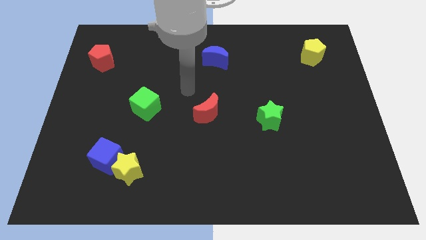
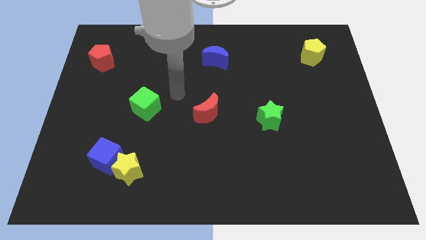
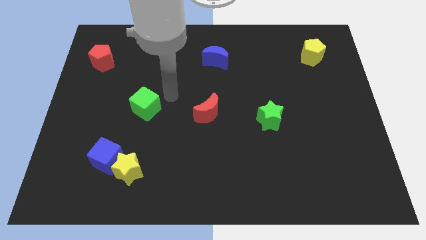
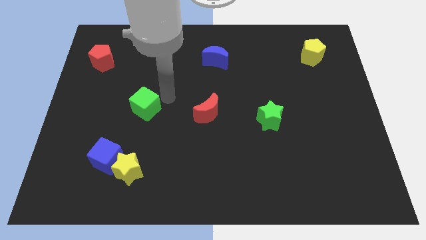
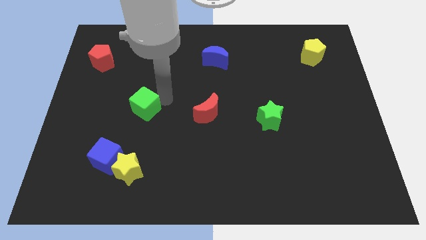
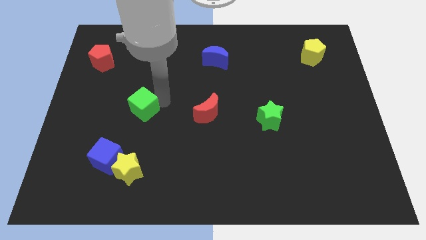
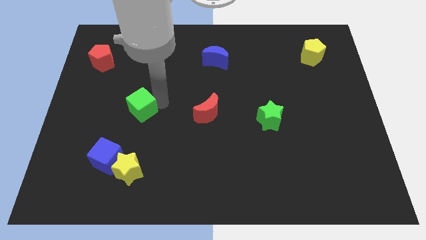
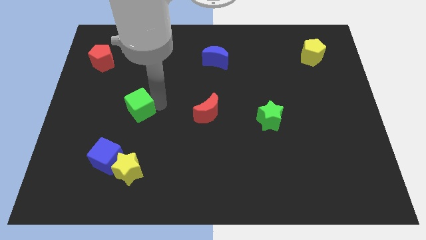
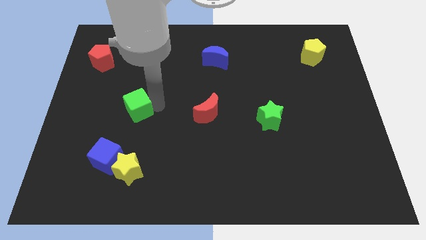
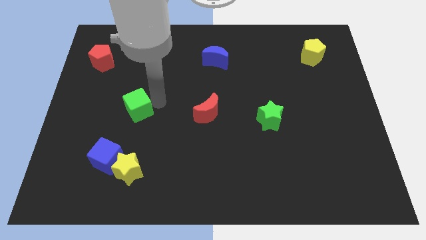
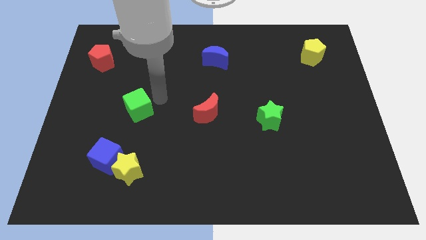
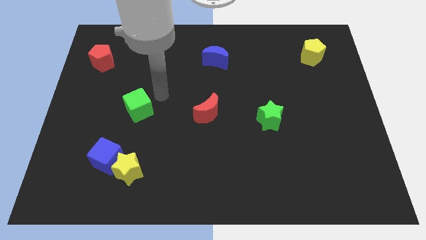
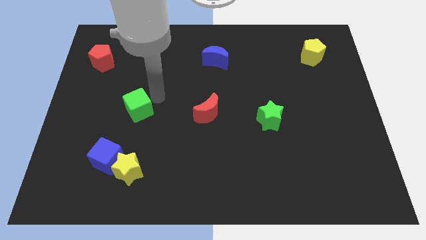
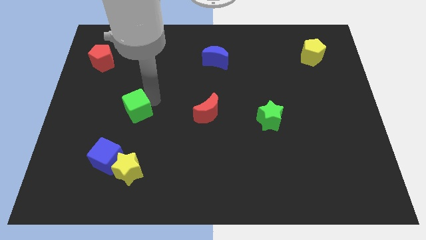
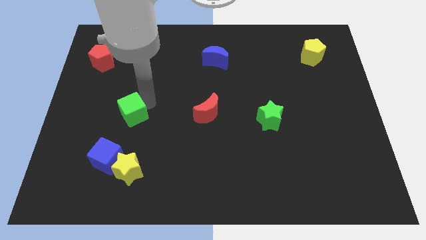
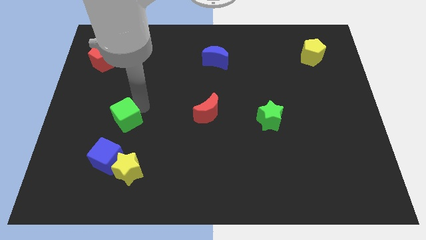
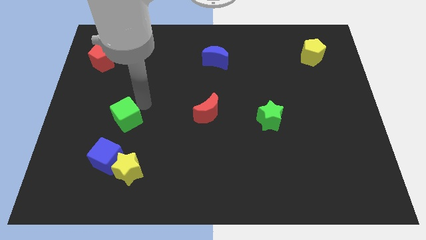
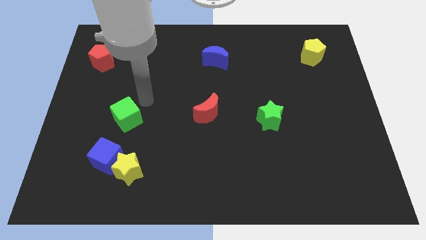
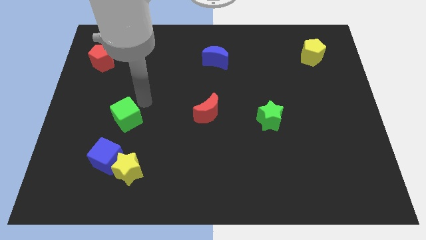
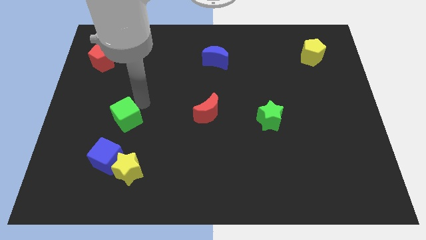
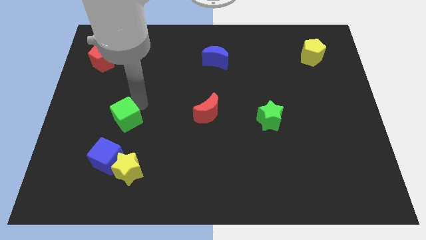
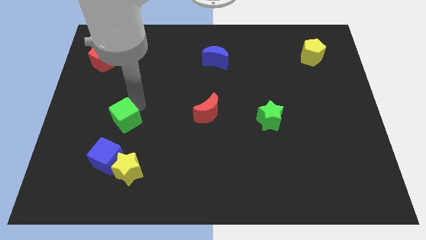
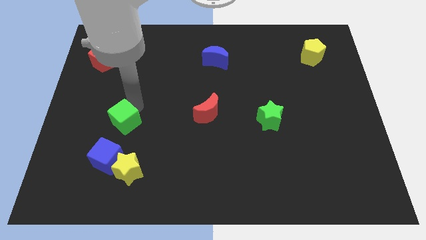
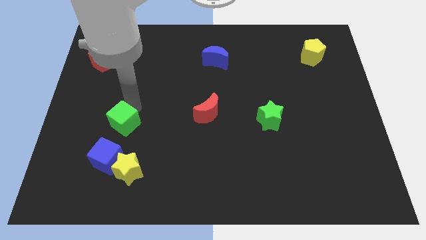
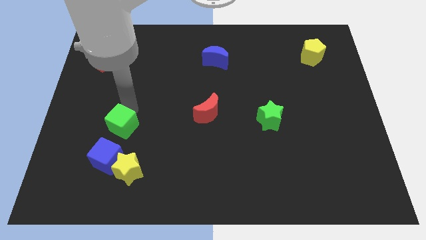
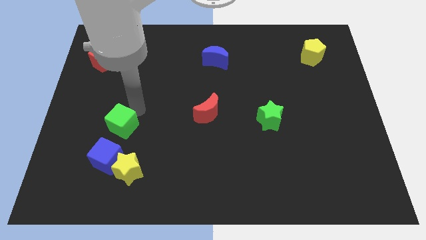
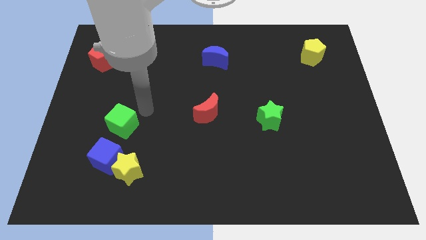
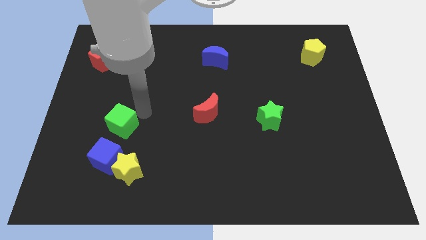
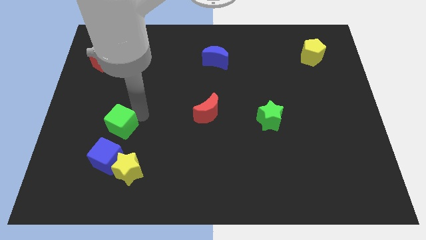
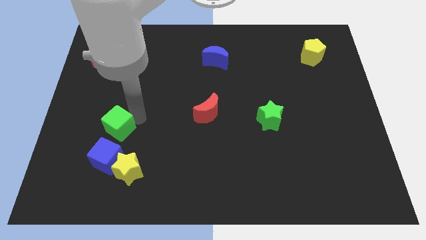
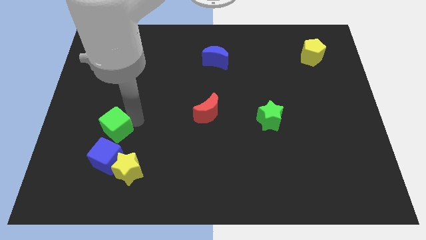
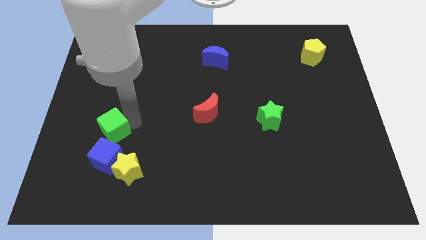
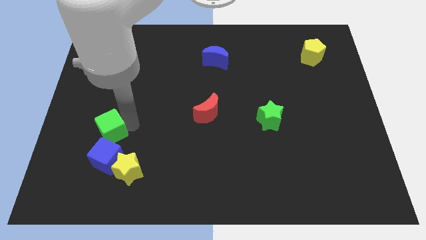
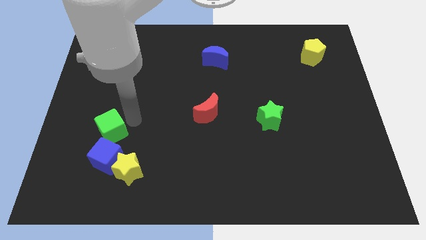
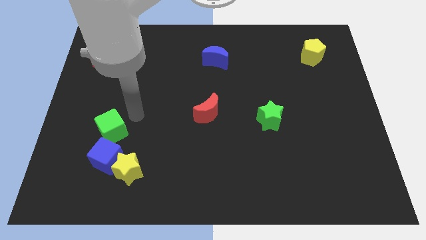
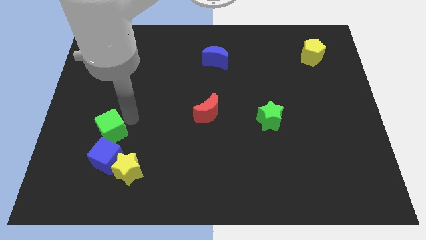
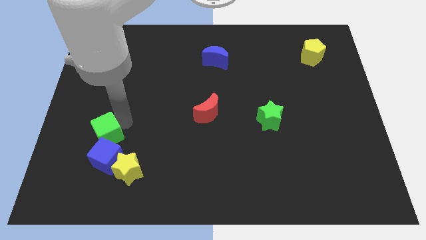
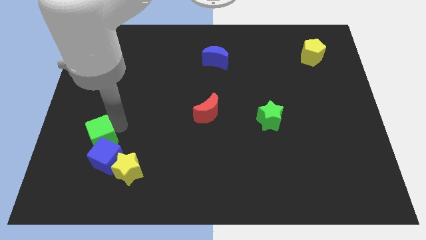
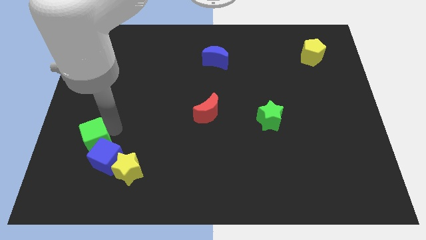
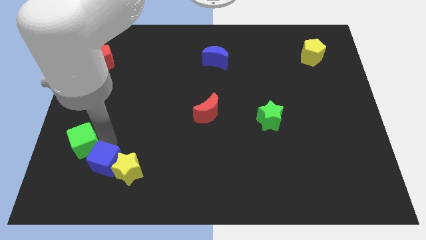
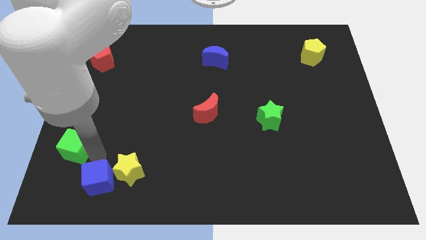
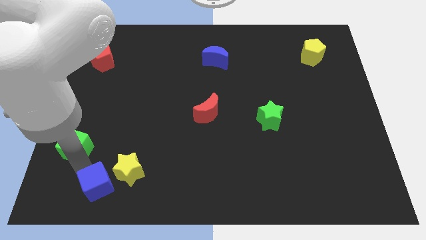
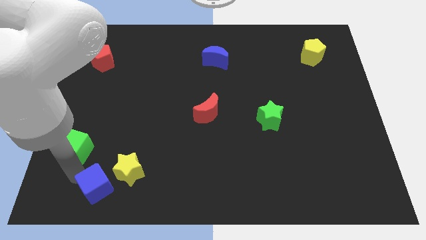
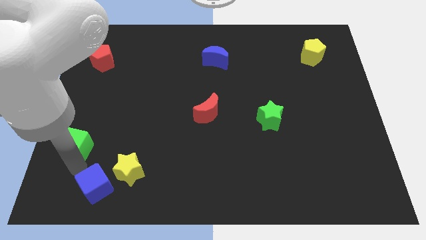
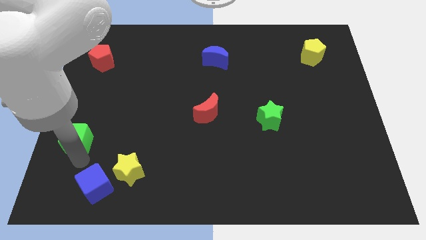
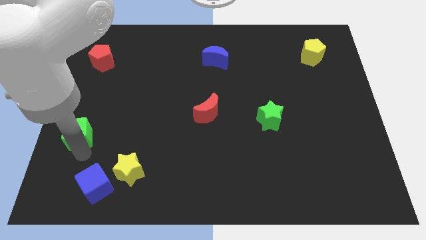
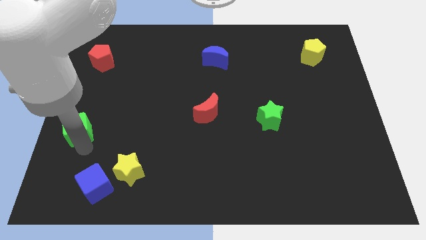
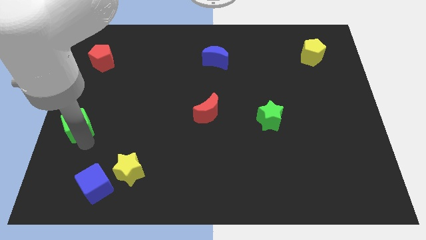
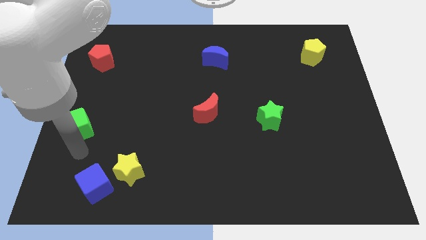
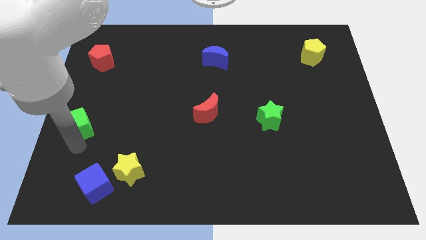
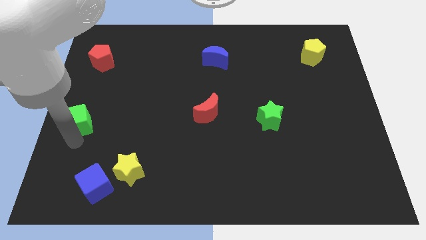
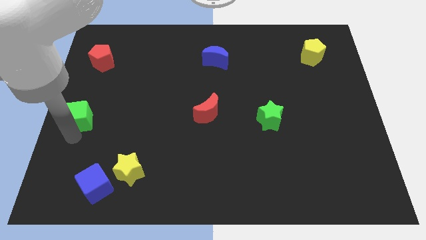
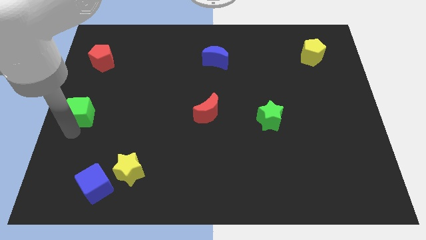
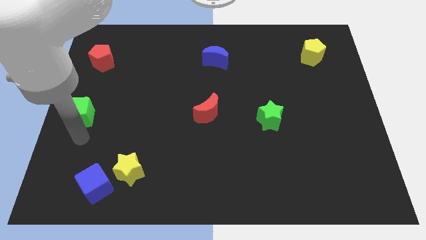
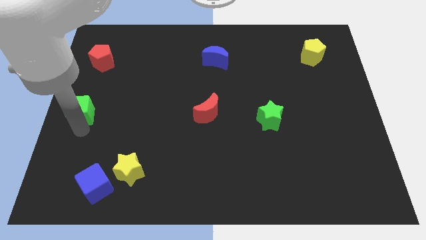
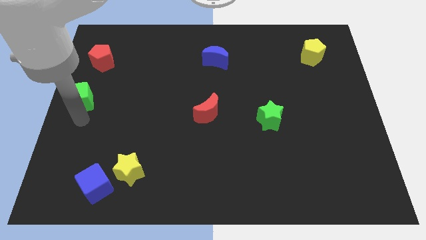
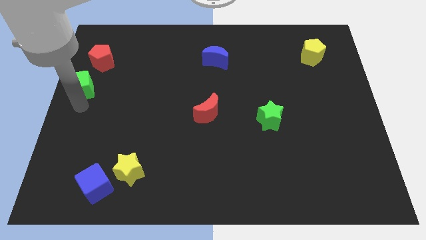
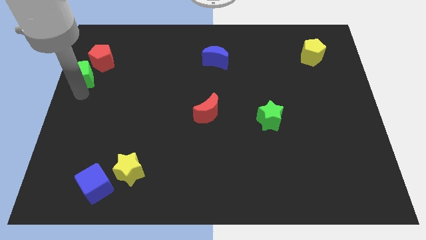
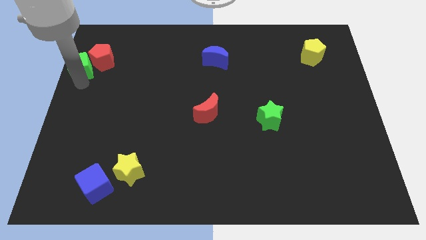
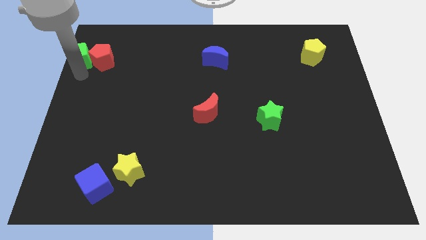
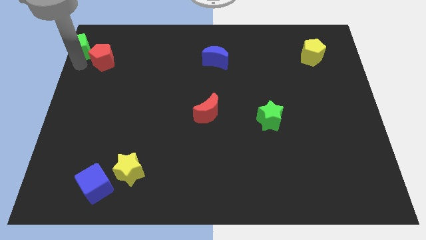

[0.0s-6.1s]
push the green cube to the upper left corner

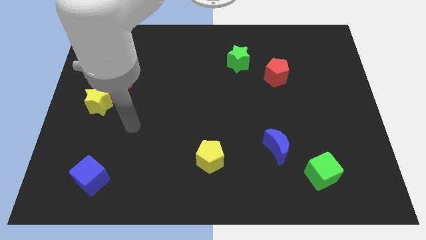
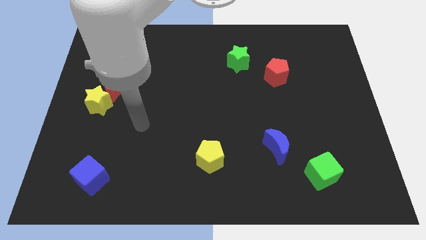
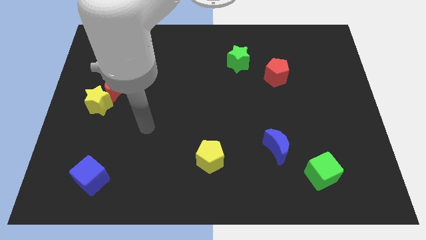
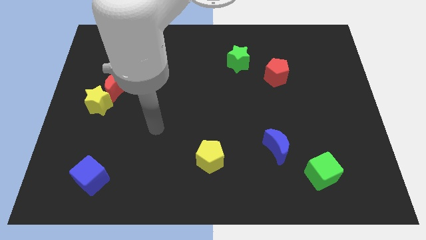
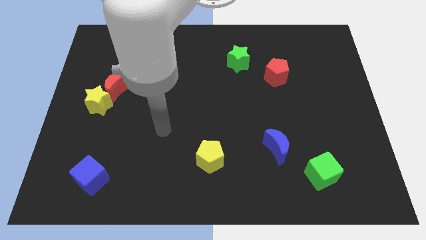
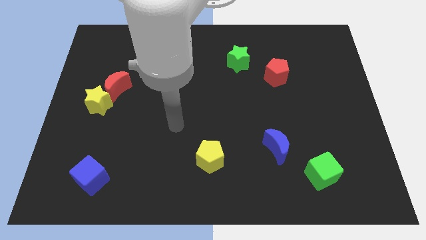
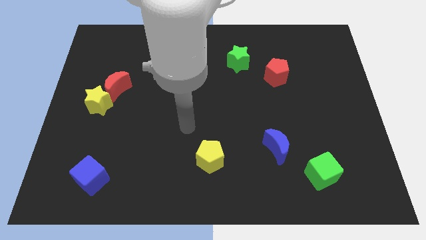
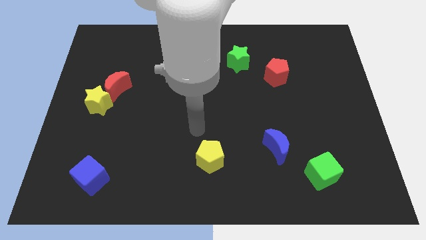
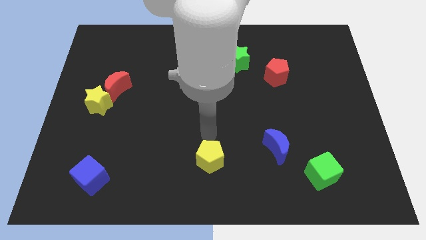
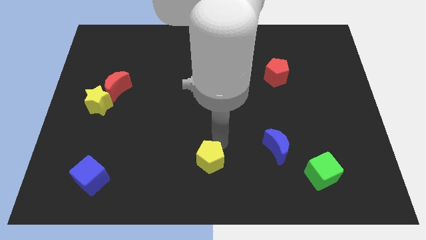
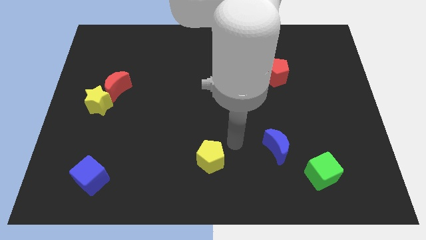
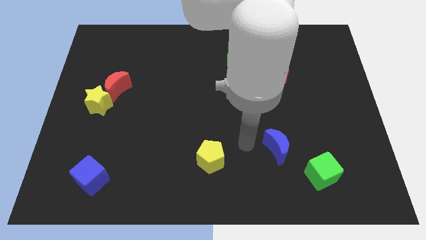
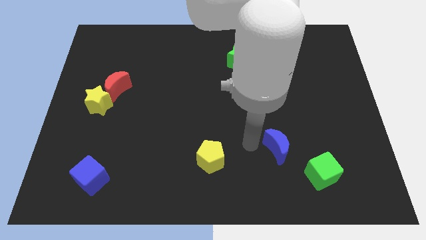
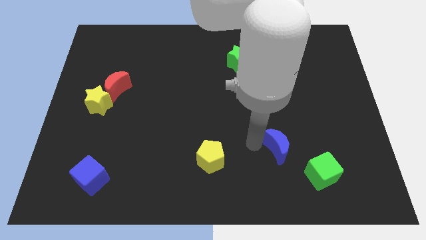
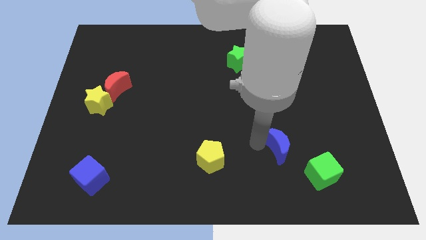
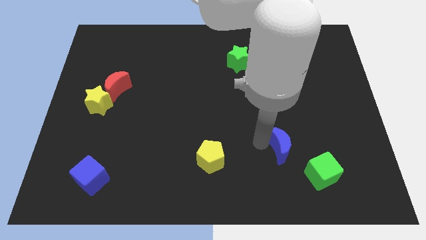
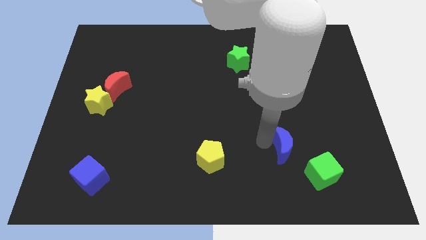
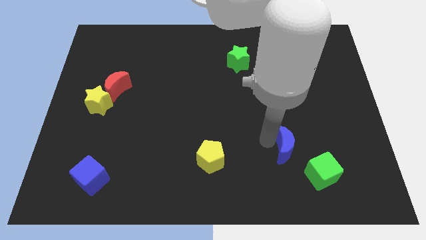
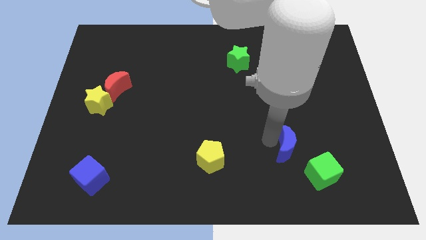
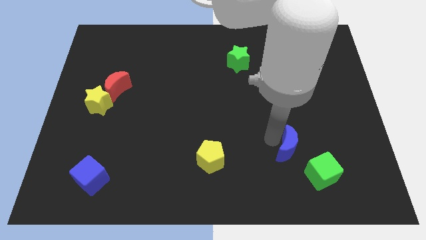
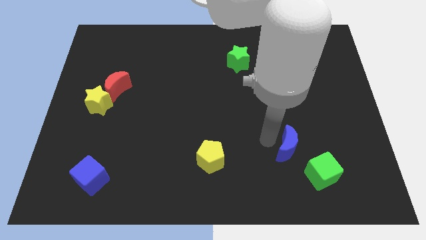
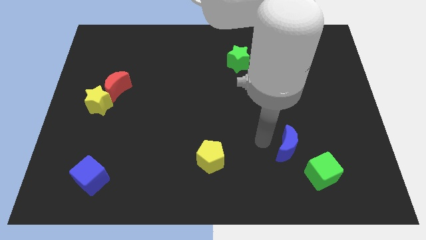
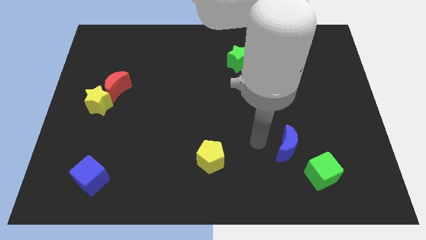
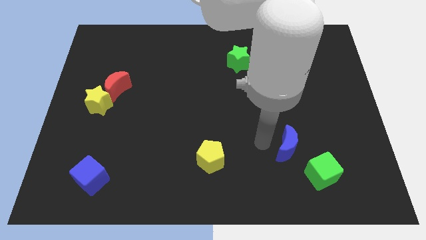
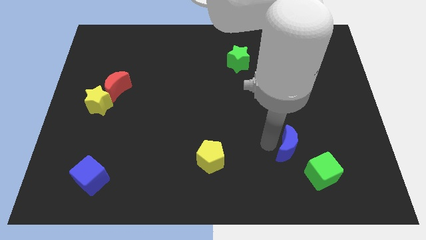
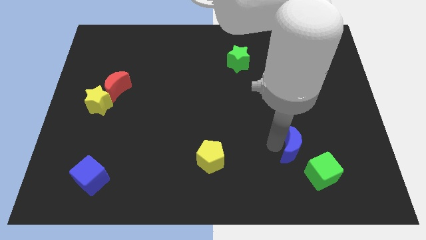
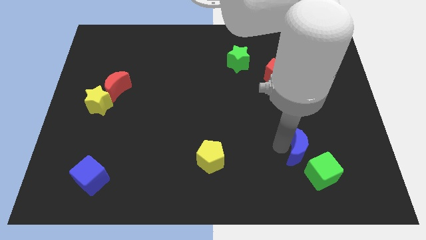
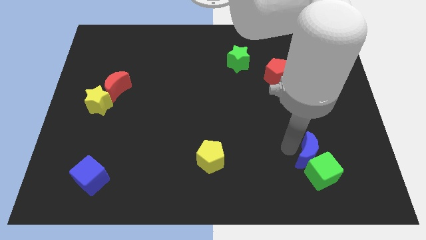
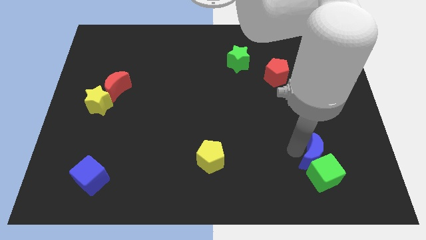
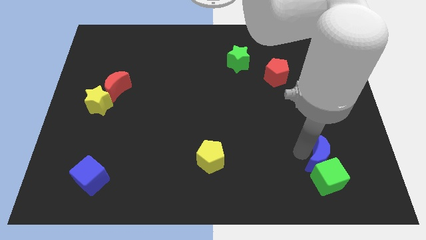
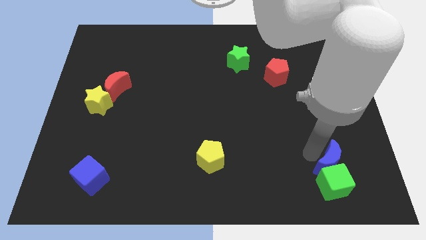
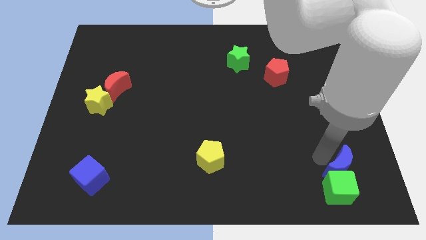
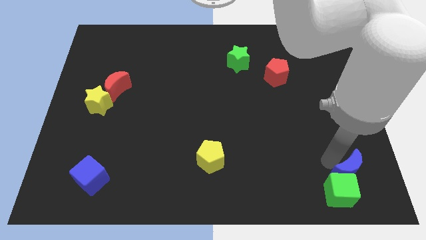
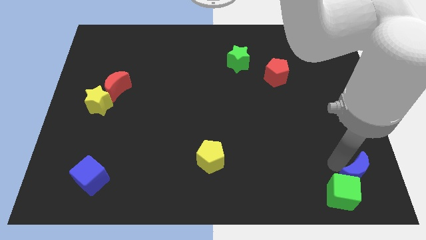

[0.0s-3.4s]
push the blue moon to the bottom right of the board
